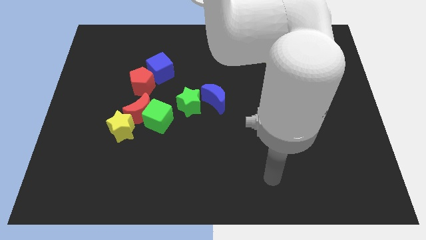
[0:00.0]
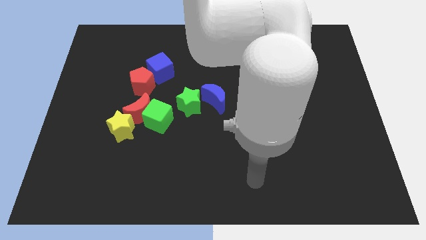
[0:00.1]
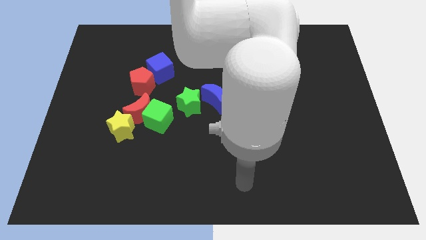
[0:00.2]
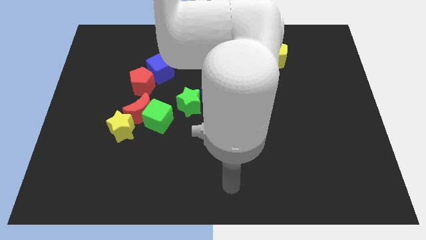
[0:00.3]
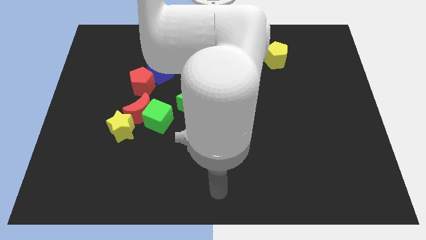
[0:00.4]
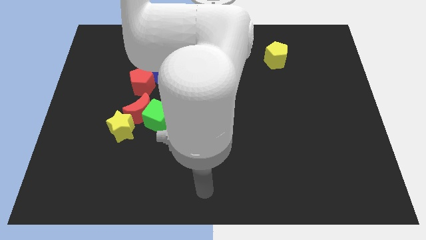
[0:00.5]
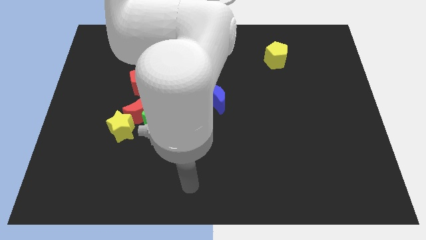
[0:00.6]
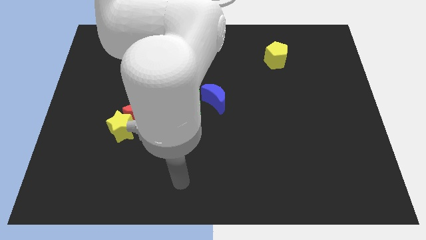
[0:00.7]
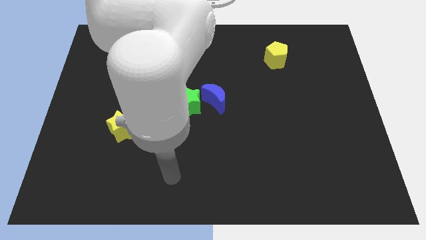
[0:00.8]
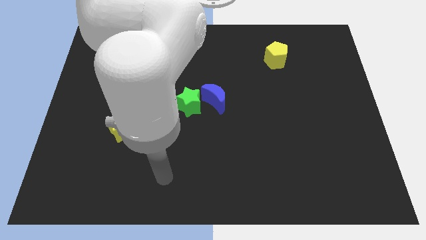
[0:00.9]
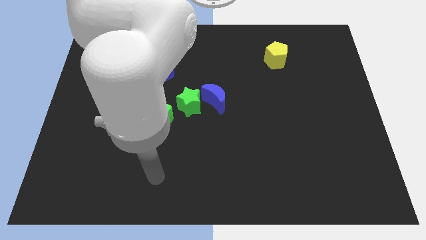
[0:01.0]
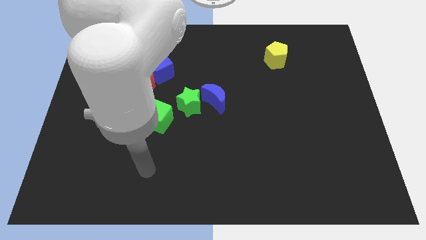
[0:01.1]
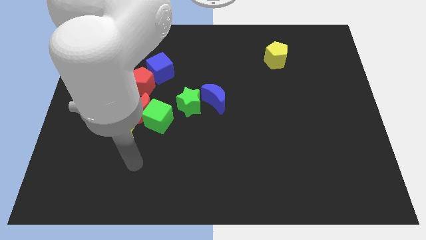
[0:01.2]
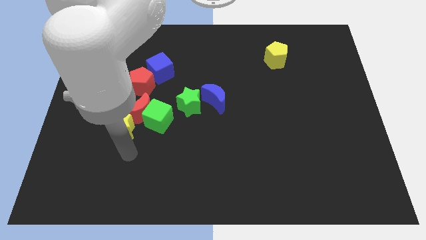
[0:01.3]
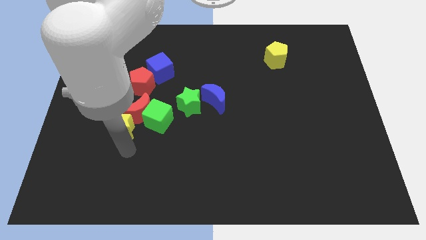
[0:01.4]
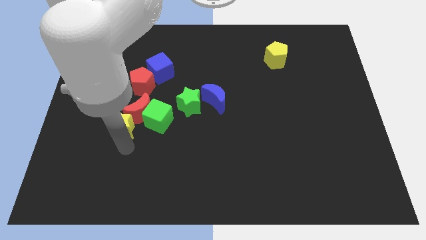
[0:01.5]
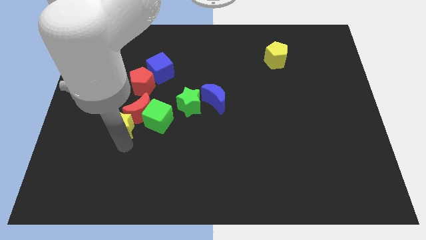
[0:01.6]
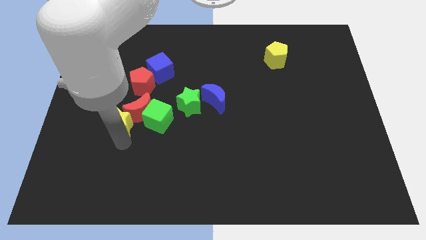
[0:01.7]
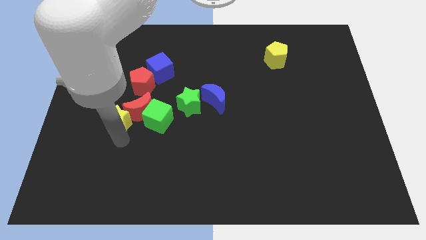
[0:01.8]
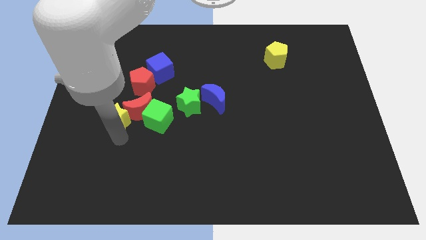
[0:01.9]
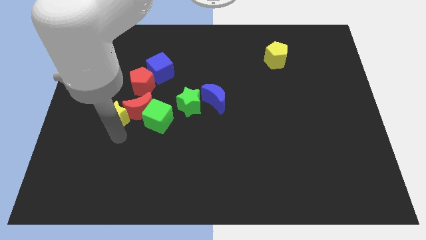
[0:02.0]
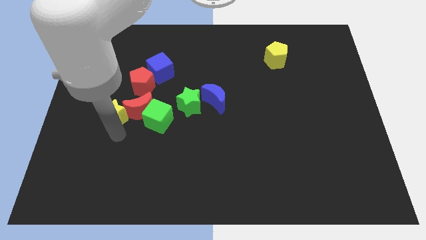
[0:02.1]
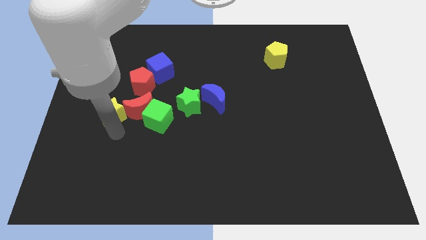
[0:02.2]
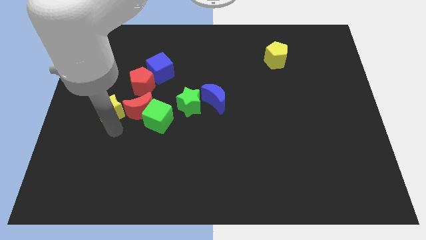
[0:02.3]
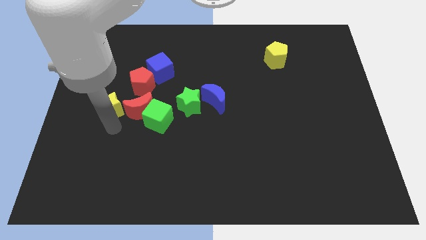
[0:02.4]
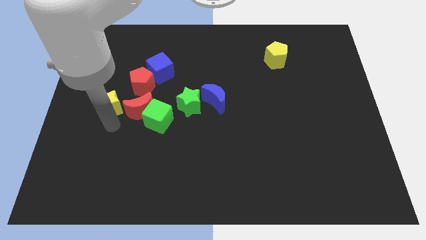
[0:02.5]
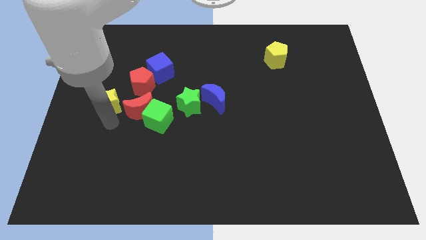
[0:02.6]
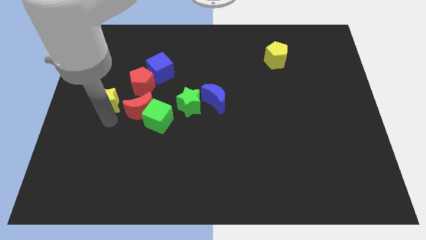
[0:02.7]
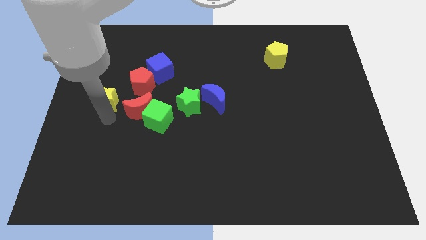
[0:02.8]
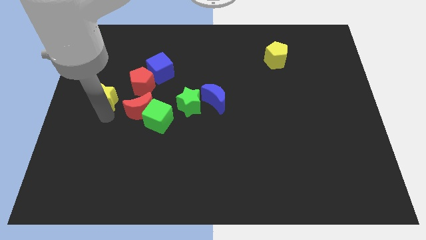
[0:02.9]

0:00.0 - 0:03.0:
move the yellow star somewhat up

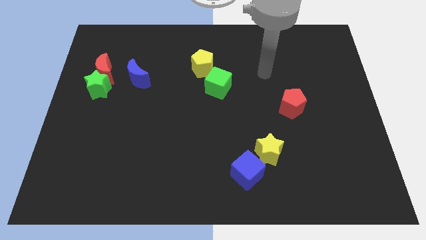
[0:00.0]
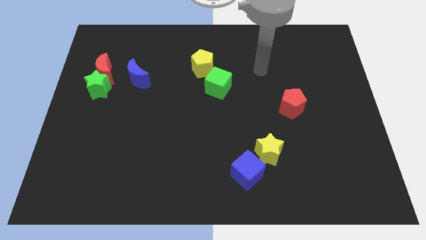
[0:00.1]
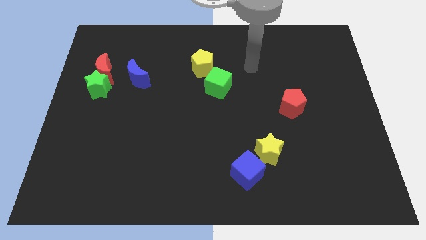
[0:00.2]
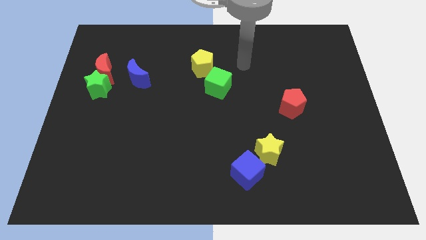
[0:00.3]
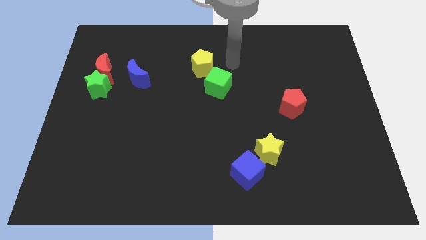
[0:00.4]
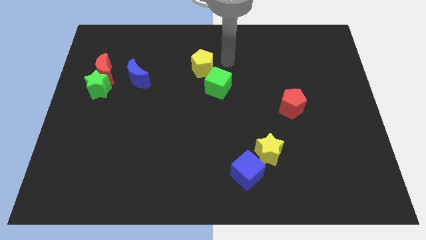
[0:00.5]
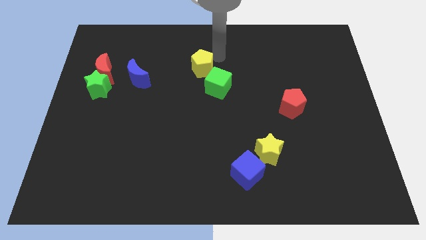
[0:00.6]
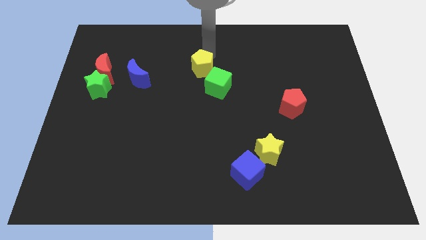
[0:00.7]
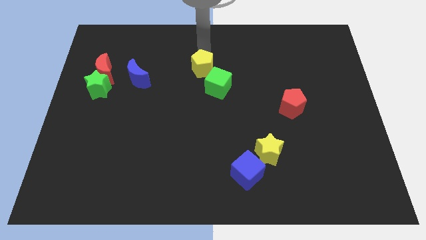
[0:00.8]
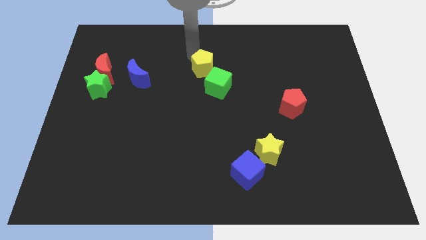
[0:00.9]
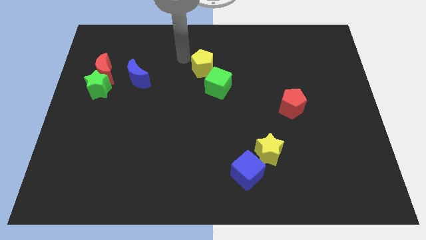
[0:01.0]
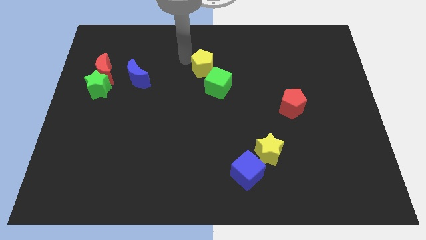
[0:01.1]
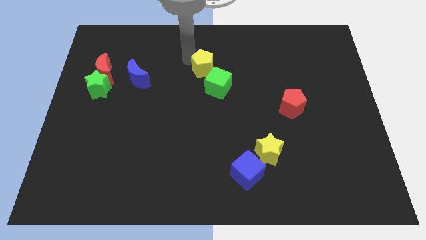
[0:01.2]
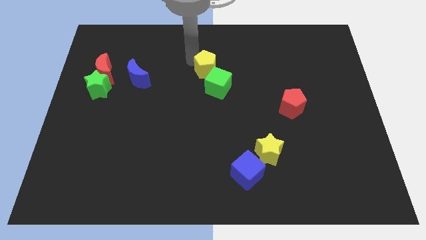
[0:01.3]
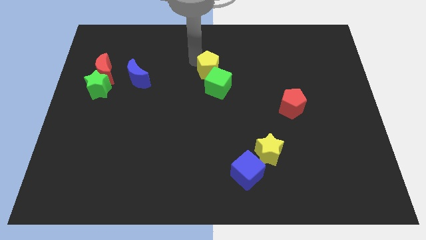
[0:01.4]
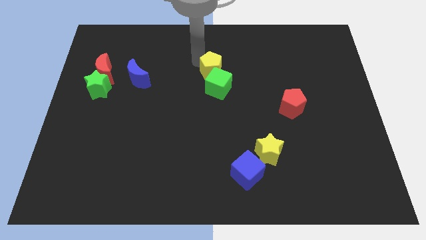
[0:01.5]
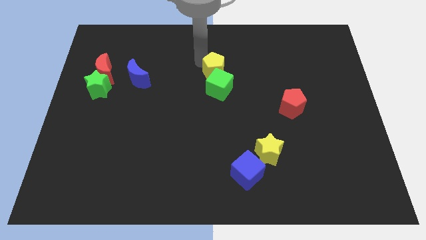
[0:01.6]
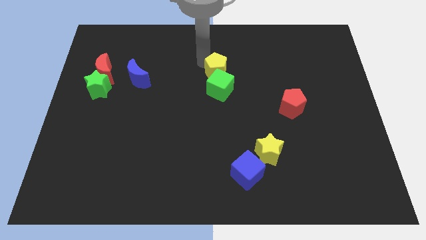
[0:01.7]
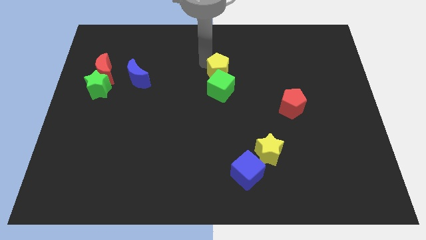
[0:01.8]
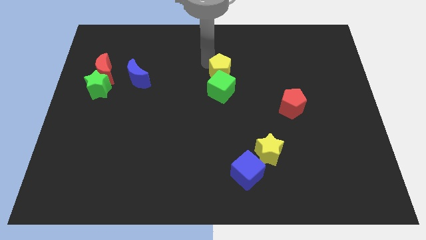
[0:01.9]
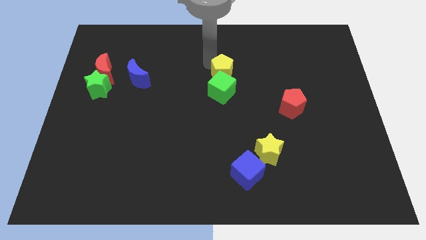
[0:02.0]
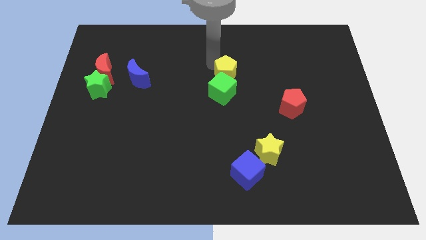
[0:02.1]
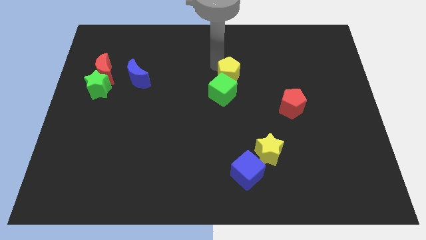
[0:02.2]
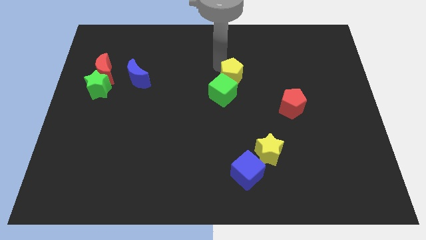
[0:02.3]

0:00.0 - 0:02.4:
slightly slide the yellow pentagon diagonally downwards and to the right

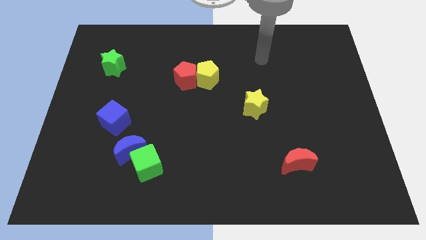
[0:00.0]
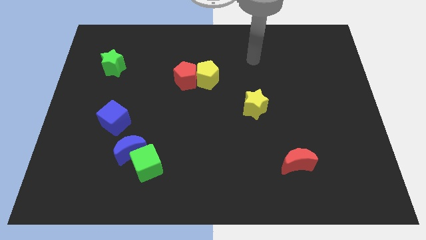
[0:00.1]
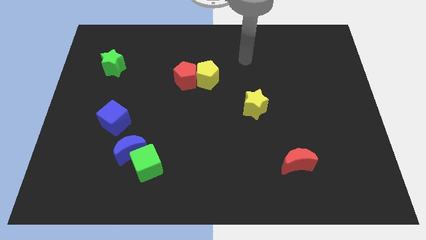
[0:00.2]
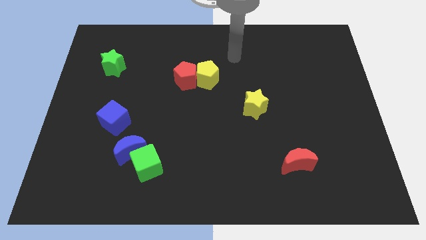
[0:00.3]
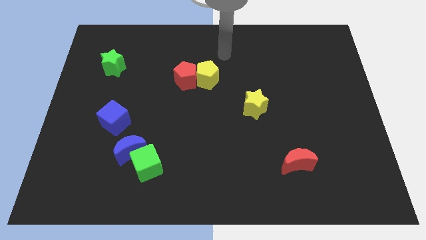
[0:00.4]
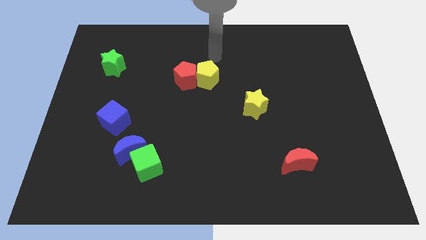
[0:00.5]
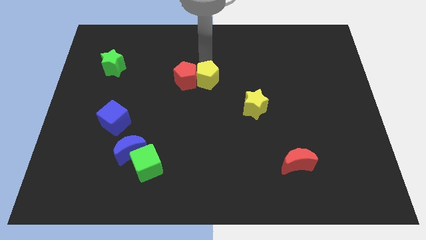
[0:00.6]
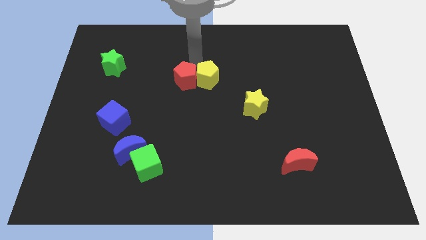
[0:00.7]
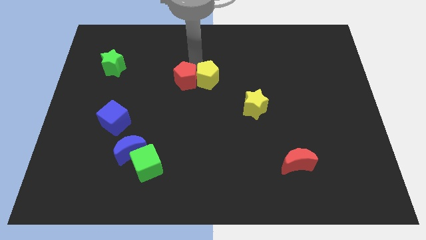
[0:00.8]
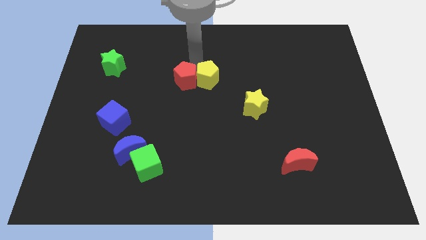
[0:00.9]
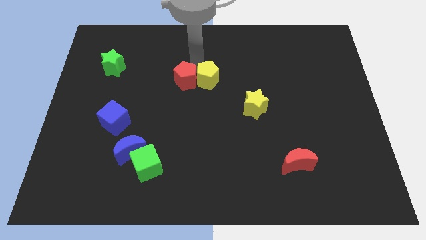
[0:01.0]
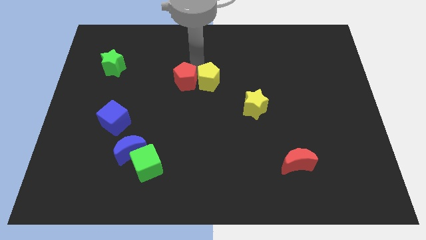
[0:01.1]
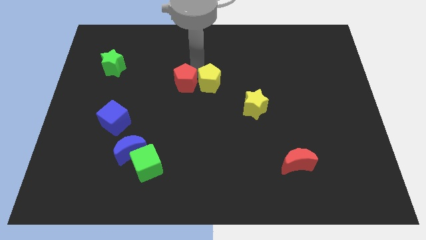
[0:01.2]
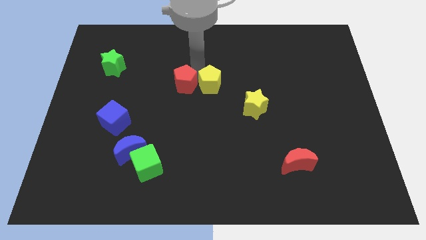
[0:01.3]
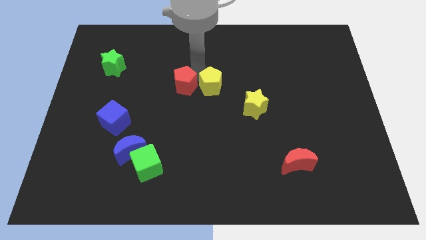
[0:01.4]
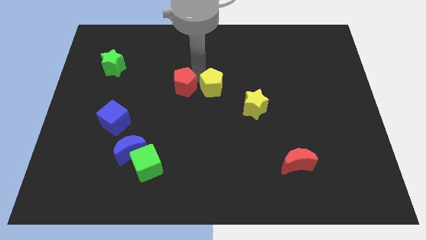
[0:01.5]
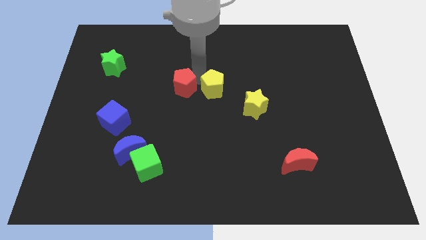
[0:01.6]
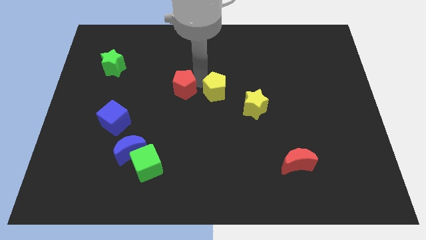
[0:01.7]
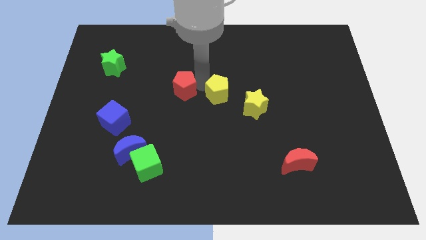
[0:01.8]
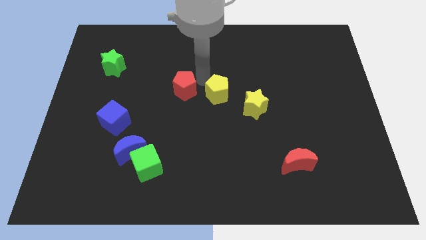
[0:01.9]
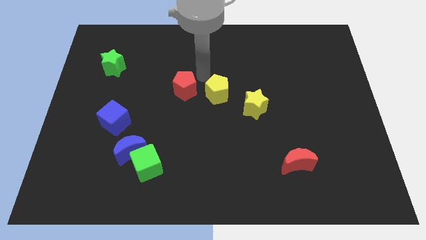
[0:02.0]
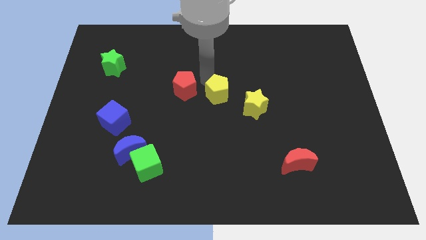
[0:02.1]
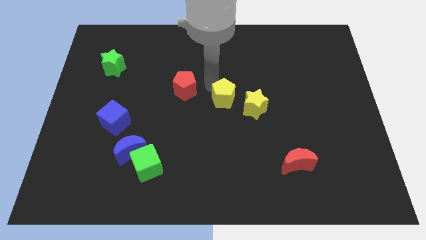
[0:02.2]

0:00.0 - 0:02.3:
move the yellow pentagon a little bit diagonally downwards and to the right

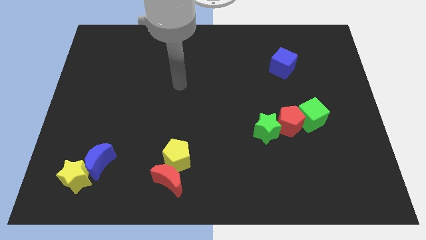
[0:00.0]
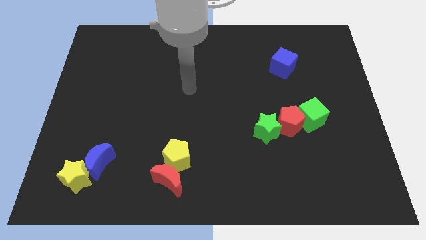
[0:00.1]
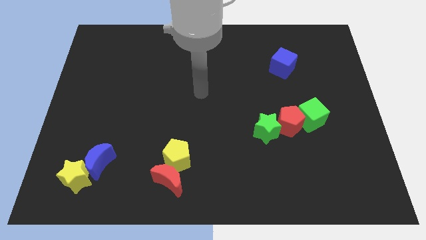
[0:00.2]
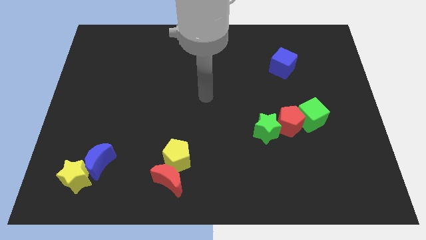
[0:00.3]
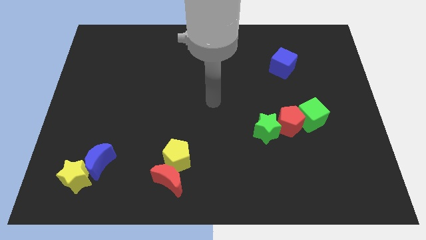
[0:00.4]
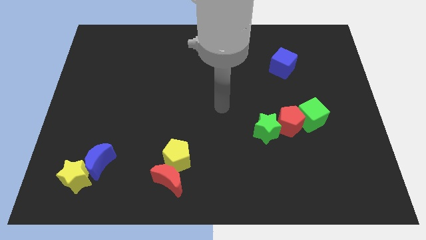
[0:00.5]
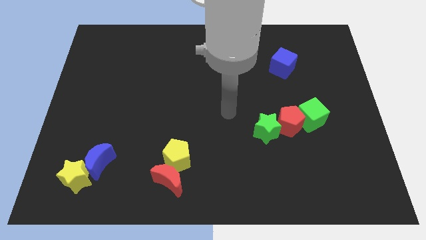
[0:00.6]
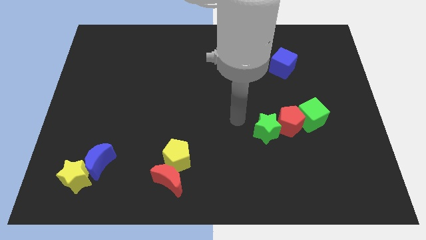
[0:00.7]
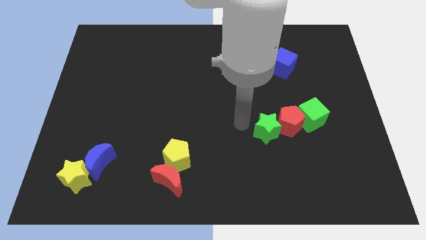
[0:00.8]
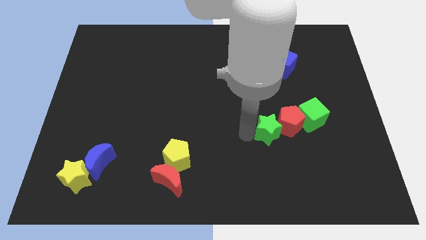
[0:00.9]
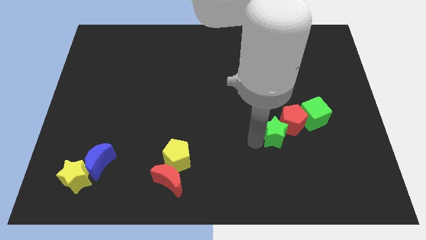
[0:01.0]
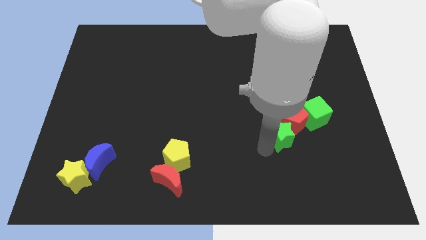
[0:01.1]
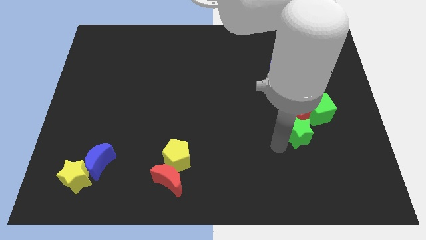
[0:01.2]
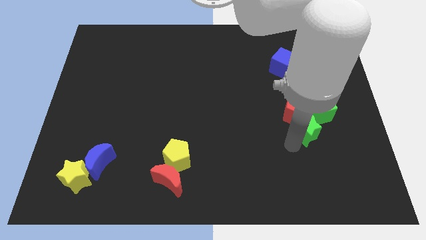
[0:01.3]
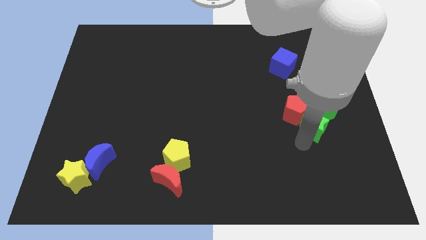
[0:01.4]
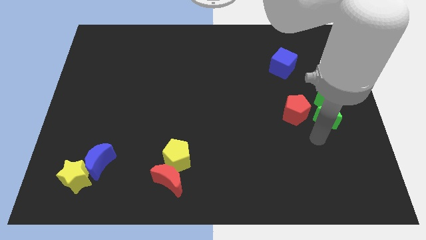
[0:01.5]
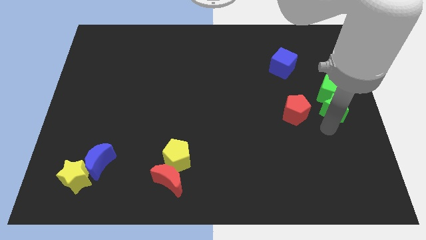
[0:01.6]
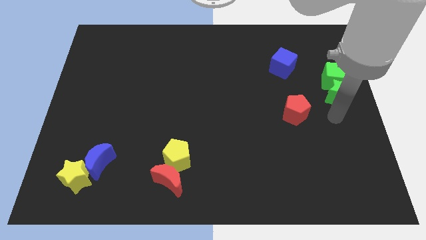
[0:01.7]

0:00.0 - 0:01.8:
slide the green cube upwards a bit
